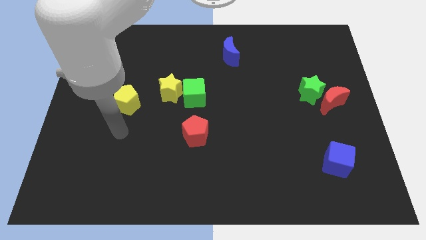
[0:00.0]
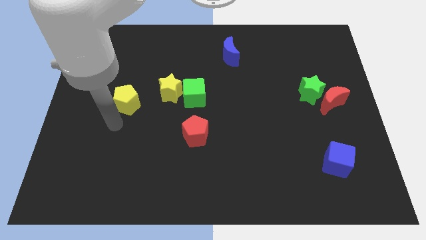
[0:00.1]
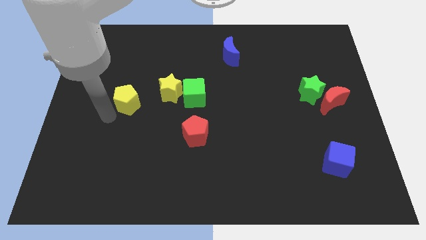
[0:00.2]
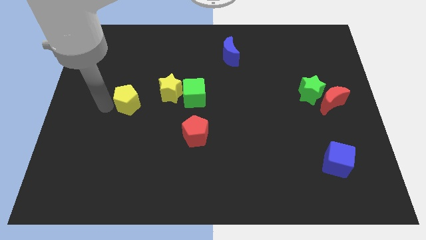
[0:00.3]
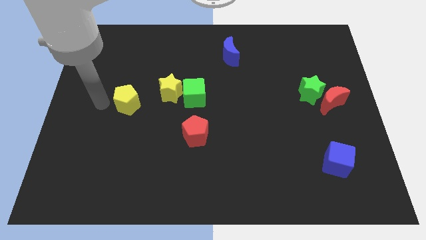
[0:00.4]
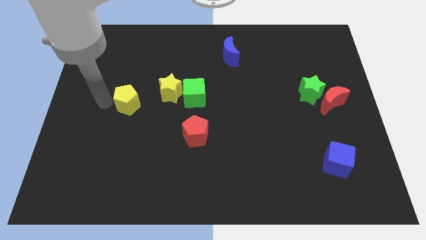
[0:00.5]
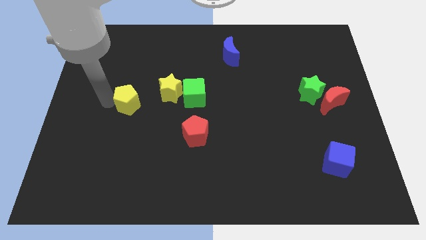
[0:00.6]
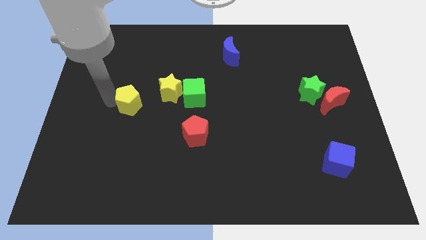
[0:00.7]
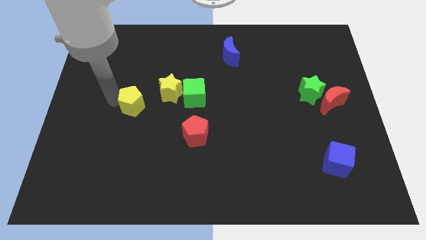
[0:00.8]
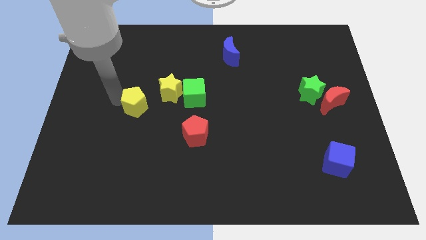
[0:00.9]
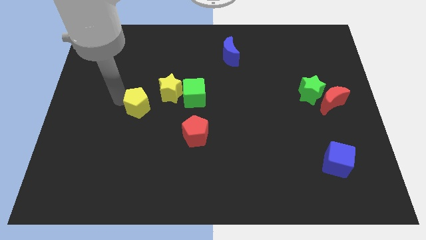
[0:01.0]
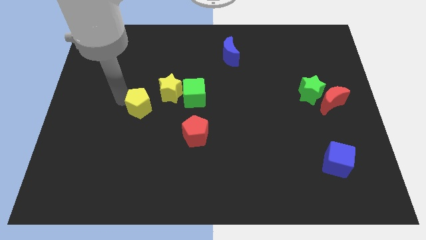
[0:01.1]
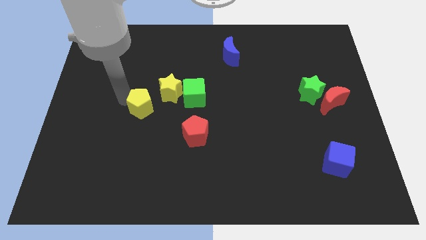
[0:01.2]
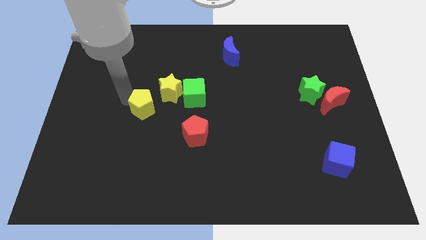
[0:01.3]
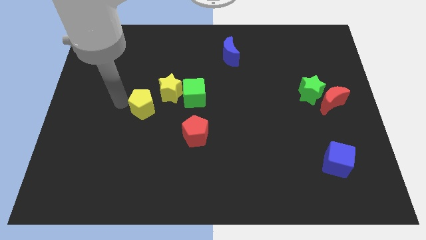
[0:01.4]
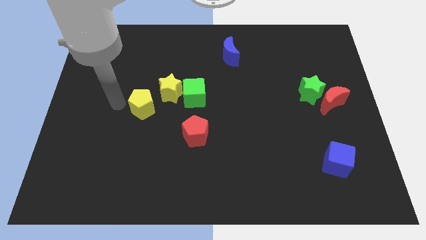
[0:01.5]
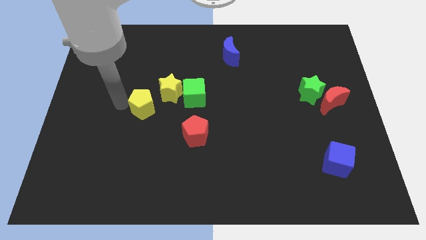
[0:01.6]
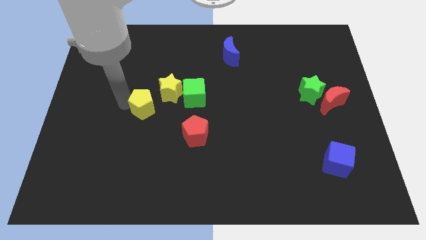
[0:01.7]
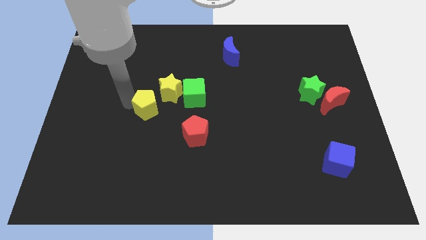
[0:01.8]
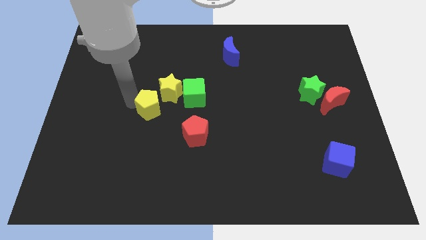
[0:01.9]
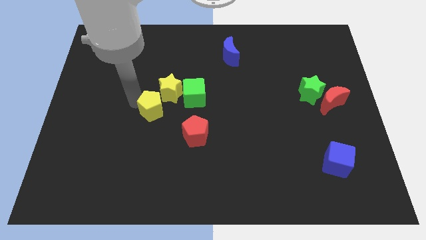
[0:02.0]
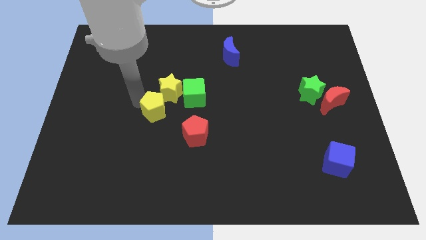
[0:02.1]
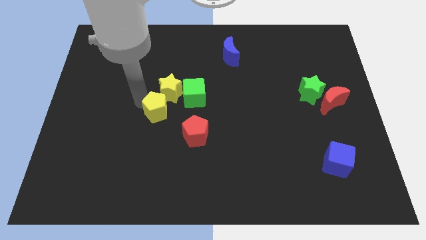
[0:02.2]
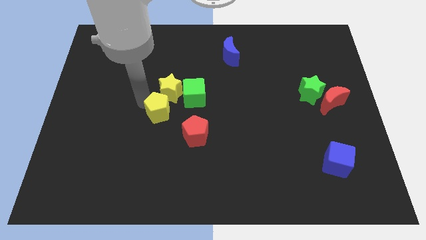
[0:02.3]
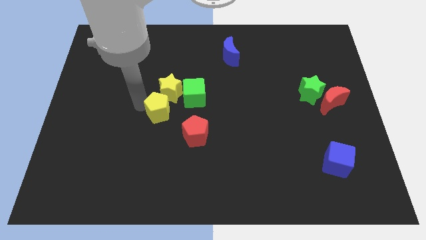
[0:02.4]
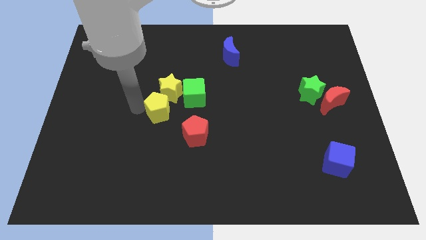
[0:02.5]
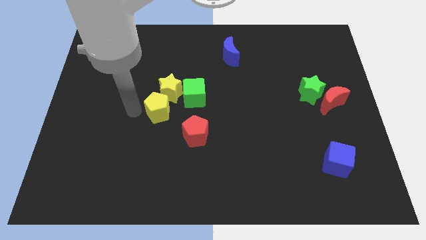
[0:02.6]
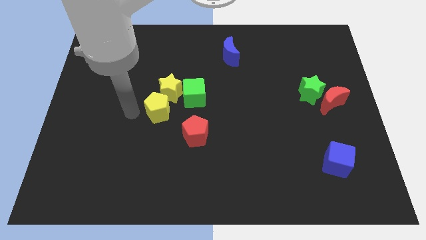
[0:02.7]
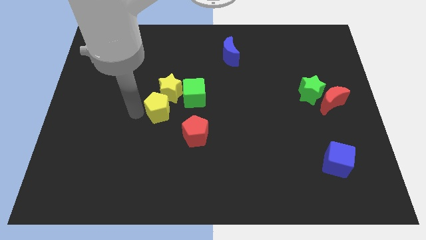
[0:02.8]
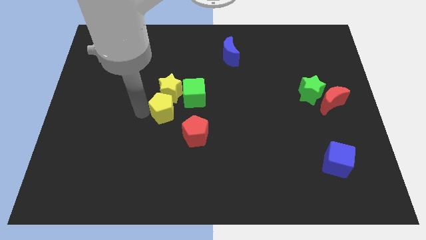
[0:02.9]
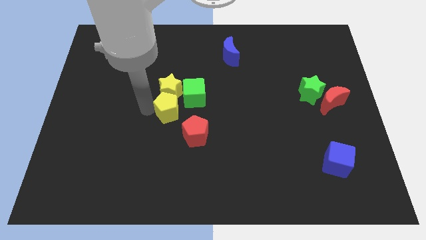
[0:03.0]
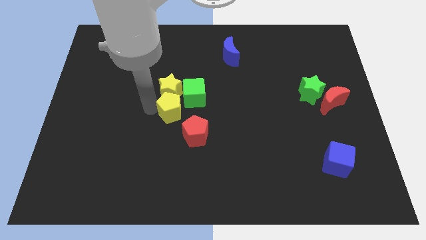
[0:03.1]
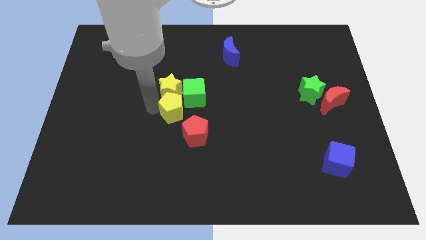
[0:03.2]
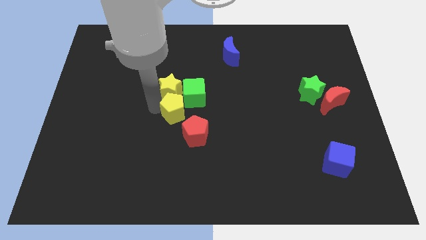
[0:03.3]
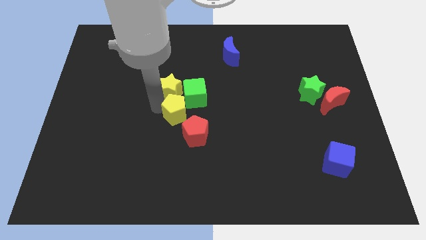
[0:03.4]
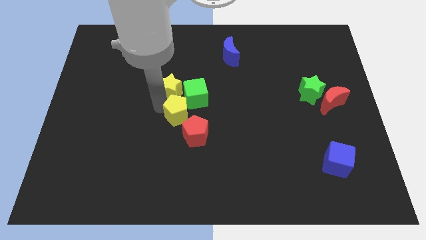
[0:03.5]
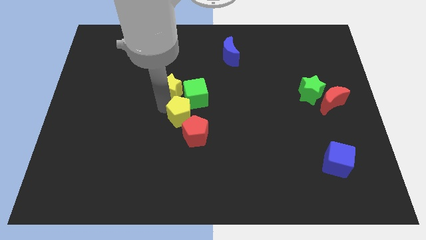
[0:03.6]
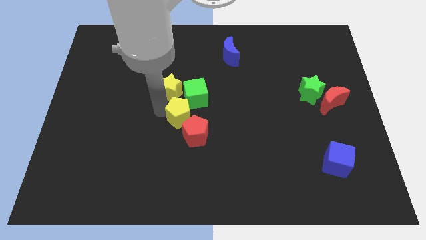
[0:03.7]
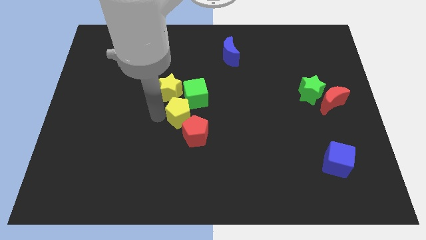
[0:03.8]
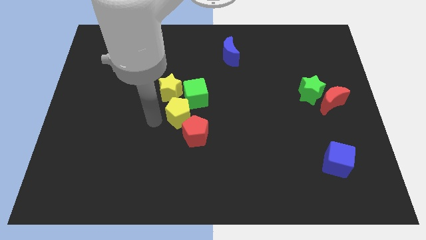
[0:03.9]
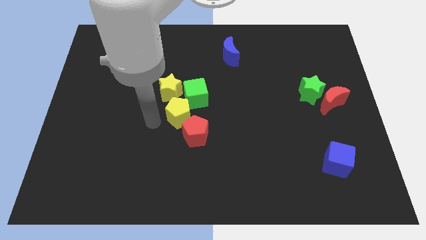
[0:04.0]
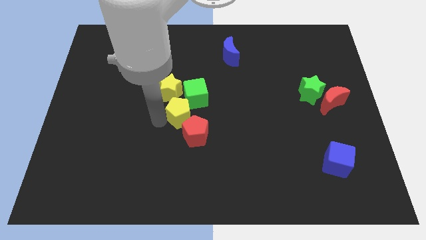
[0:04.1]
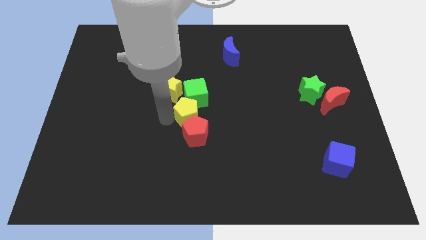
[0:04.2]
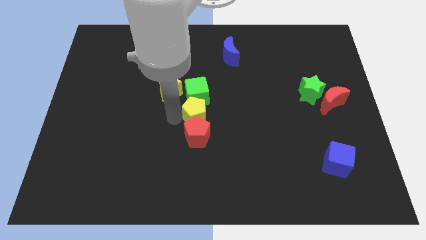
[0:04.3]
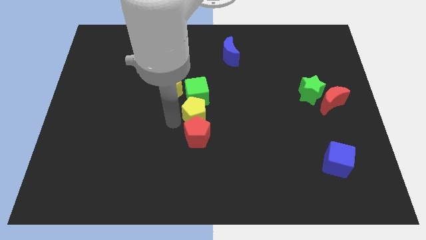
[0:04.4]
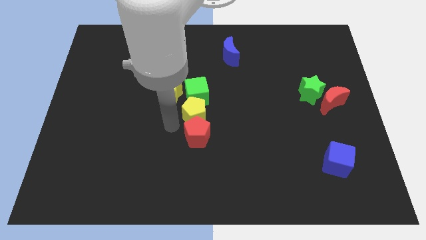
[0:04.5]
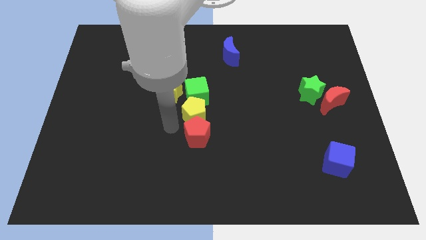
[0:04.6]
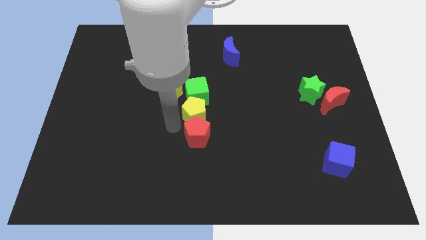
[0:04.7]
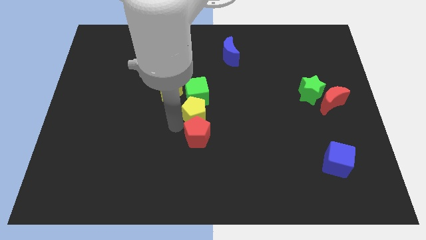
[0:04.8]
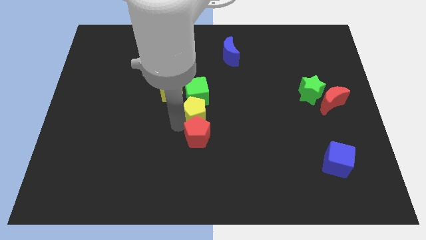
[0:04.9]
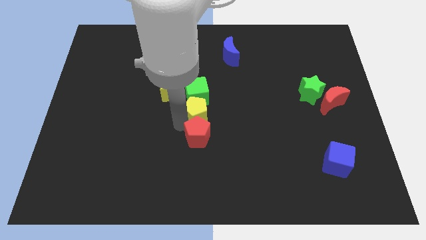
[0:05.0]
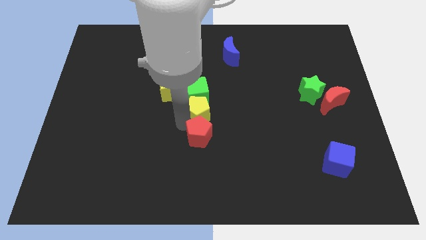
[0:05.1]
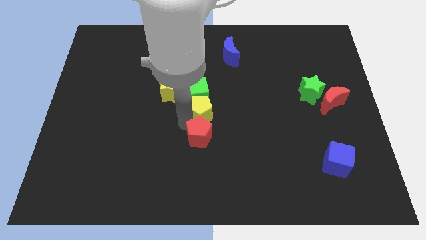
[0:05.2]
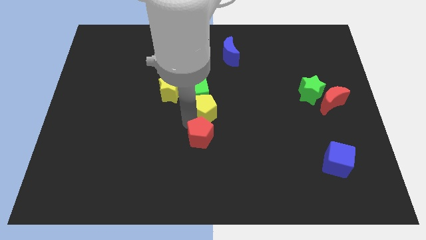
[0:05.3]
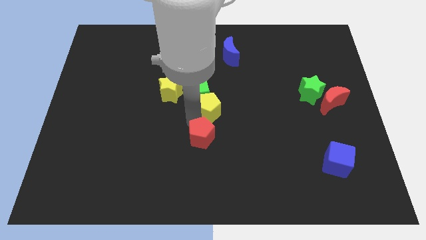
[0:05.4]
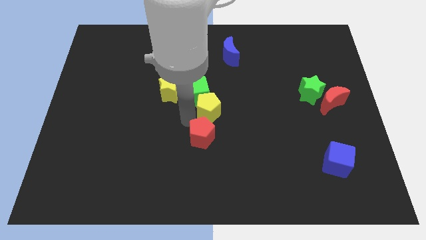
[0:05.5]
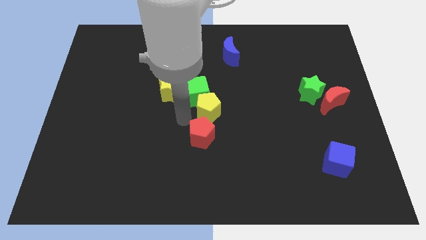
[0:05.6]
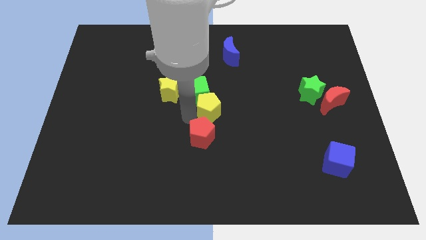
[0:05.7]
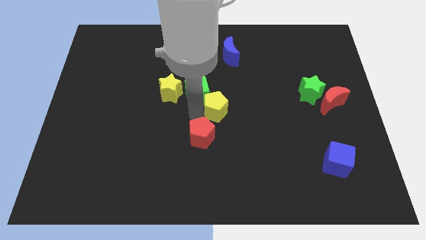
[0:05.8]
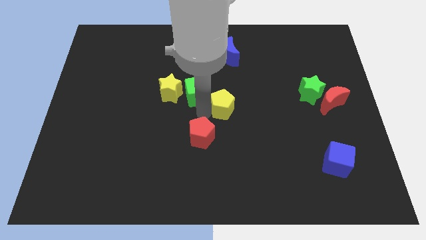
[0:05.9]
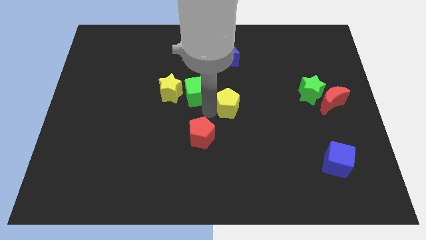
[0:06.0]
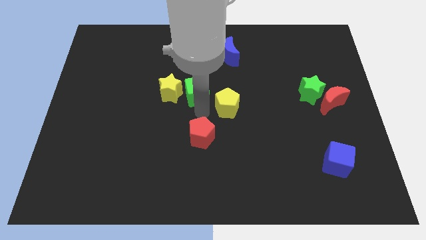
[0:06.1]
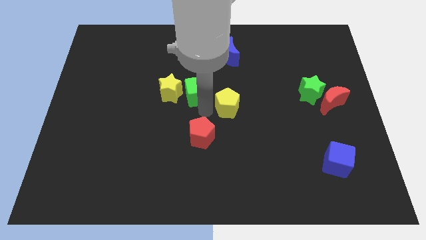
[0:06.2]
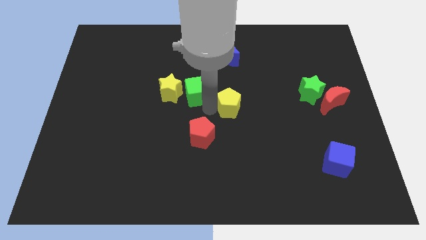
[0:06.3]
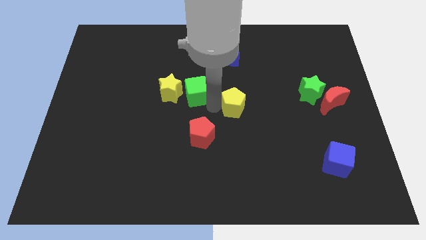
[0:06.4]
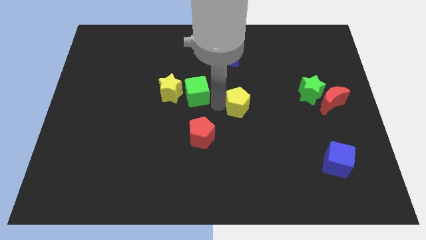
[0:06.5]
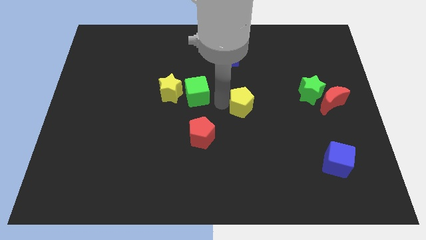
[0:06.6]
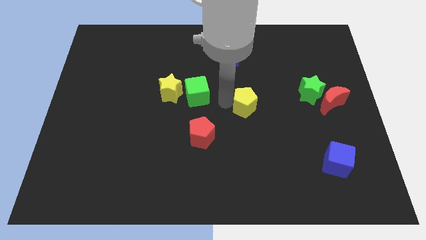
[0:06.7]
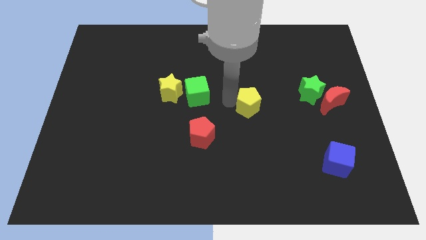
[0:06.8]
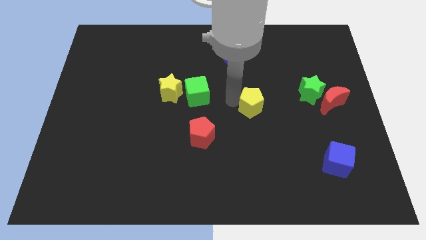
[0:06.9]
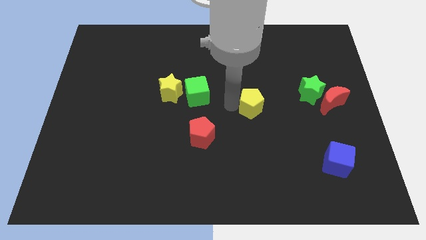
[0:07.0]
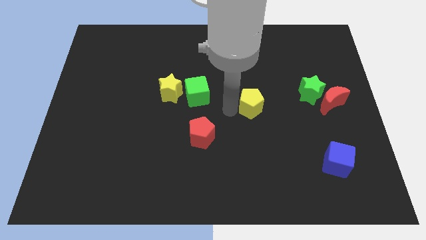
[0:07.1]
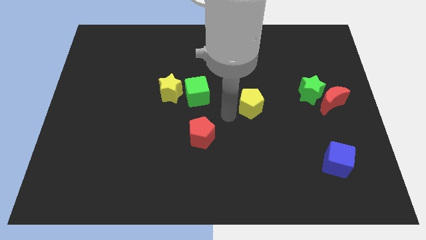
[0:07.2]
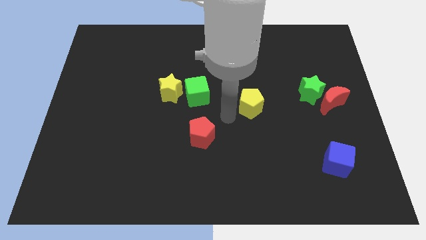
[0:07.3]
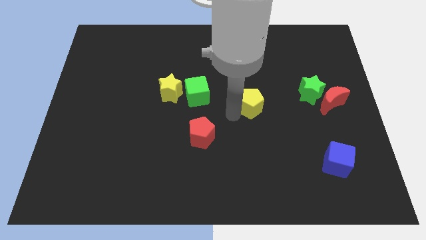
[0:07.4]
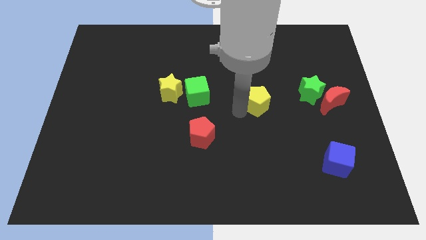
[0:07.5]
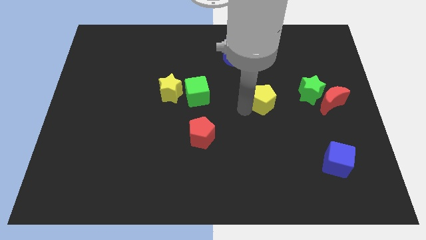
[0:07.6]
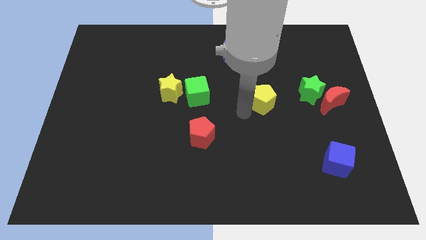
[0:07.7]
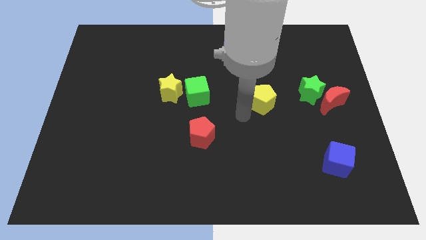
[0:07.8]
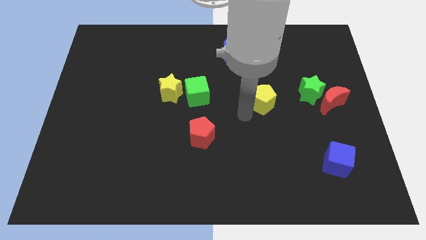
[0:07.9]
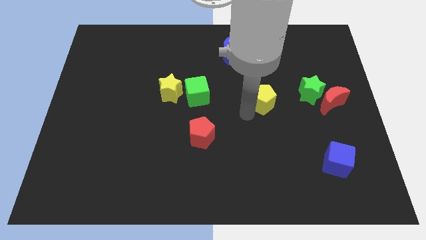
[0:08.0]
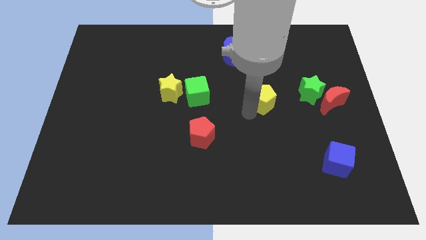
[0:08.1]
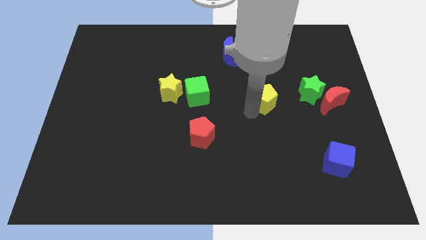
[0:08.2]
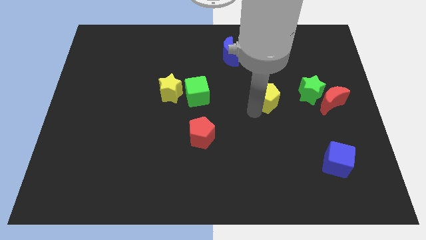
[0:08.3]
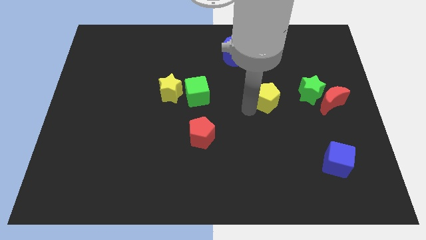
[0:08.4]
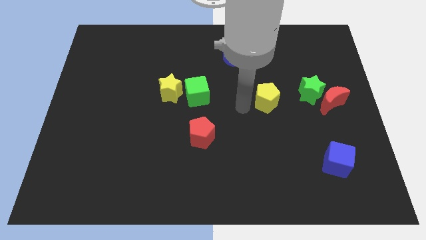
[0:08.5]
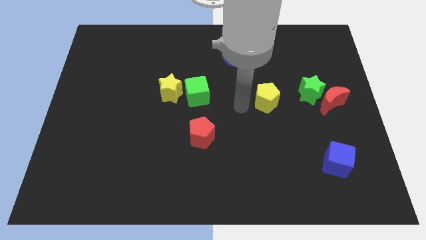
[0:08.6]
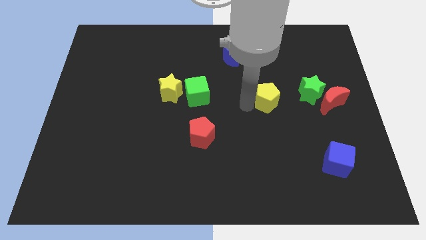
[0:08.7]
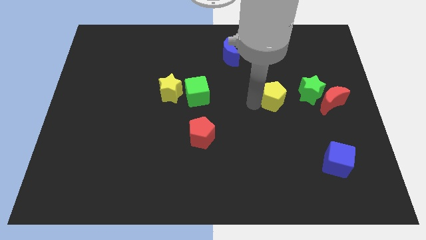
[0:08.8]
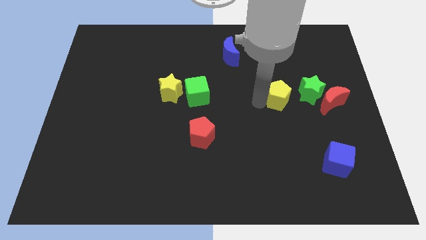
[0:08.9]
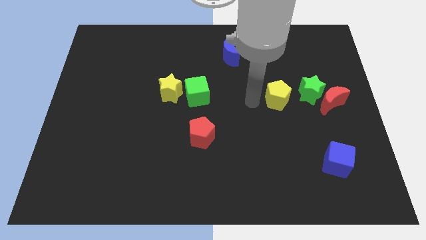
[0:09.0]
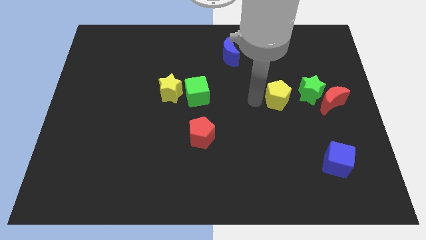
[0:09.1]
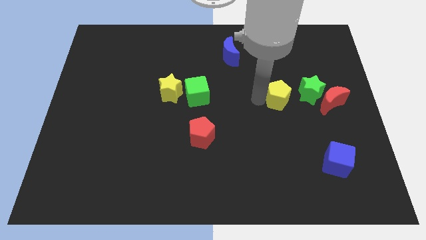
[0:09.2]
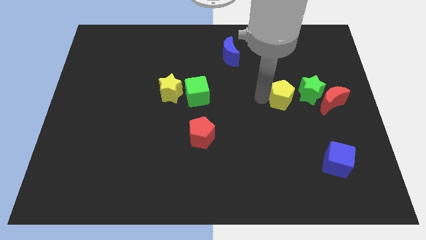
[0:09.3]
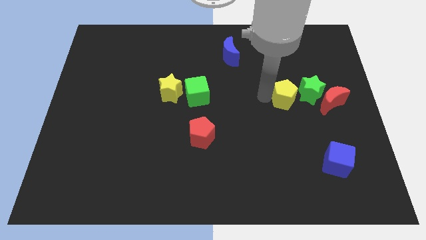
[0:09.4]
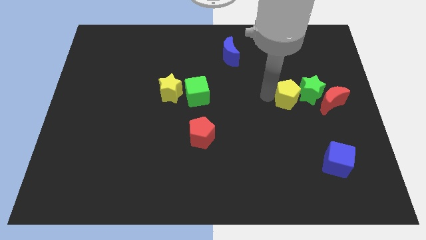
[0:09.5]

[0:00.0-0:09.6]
slide the yellow pentagon towards the green star
